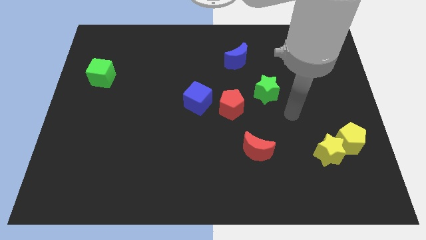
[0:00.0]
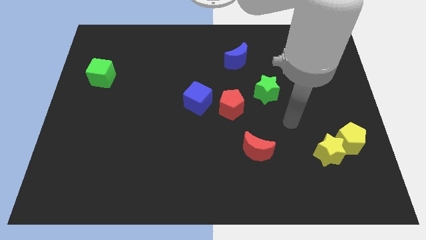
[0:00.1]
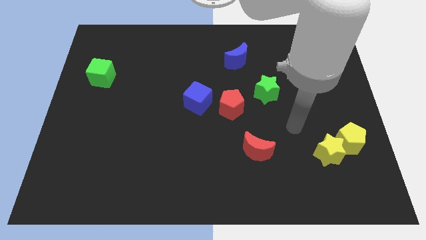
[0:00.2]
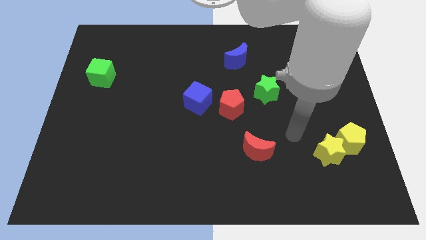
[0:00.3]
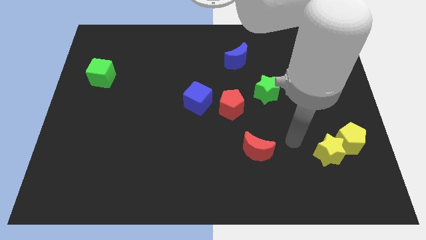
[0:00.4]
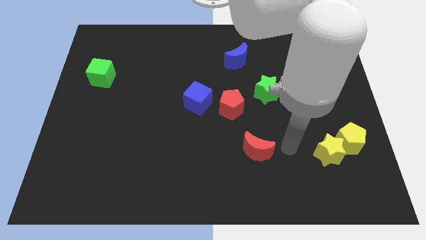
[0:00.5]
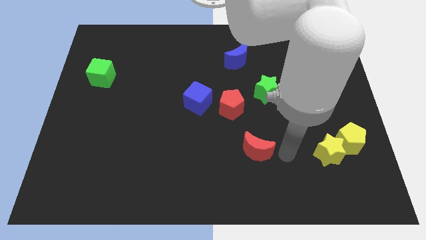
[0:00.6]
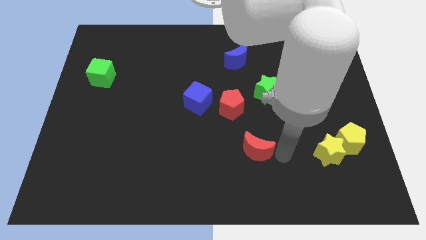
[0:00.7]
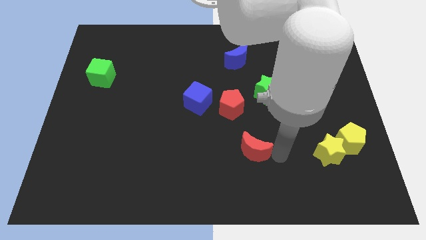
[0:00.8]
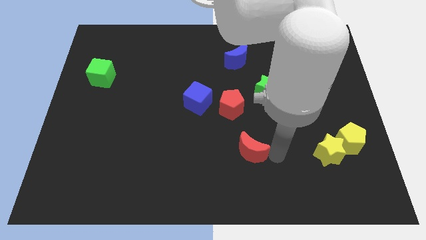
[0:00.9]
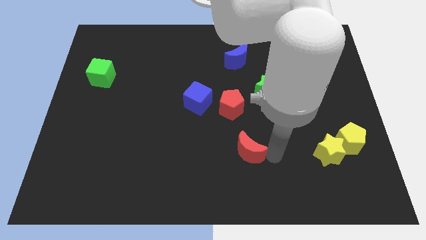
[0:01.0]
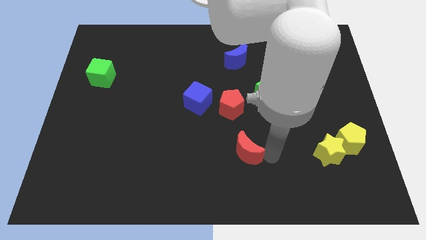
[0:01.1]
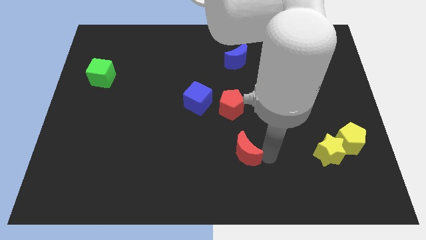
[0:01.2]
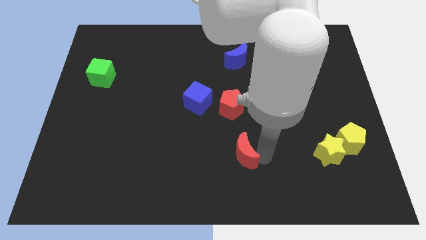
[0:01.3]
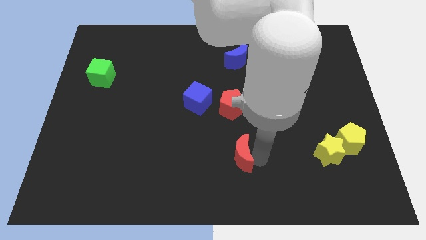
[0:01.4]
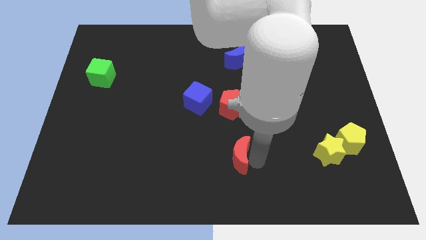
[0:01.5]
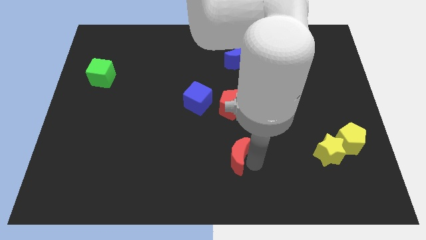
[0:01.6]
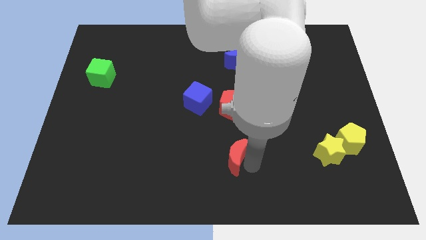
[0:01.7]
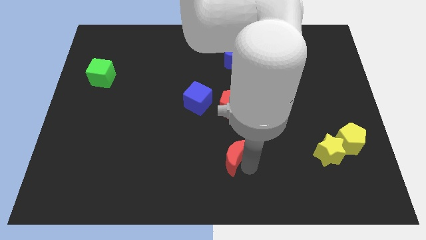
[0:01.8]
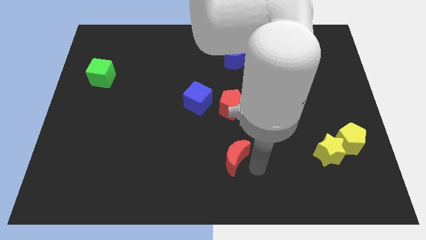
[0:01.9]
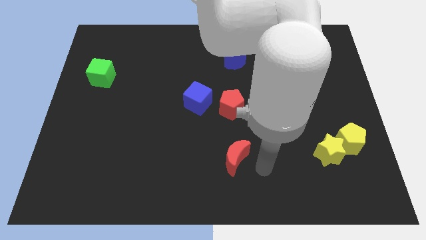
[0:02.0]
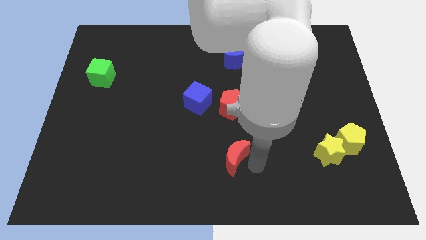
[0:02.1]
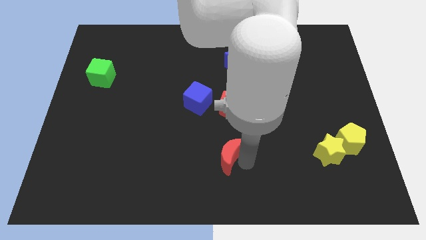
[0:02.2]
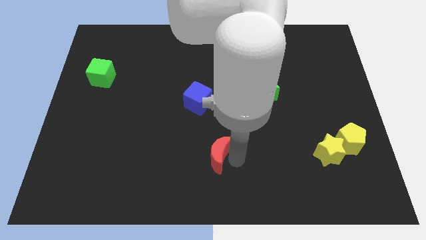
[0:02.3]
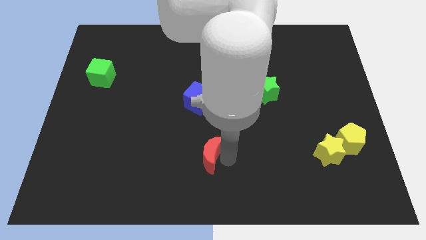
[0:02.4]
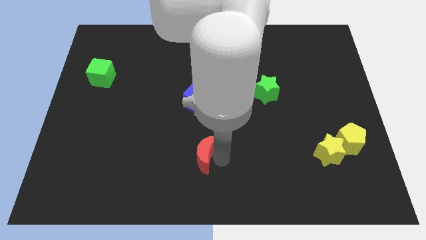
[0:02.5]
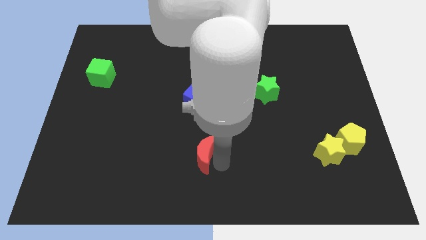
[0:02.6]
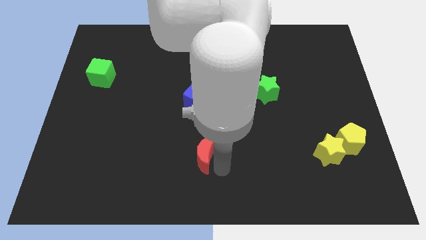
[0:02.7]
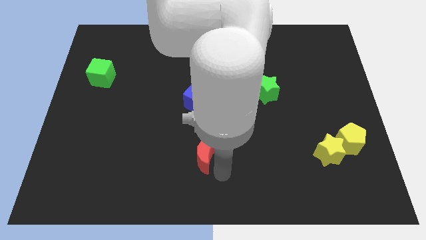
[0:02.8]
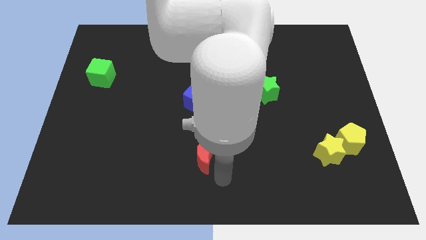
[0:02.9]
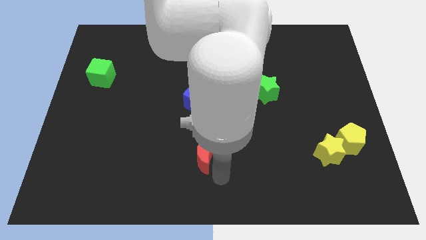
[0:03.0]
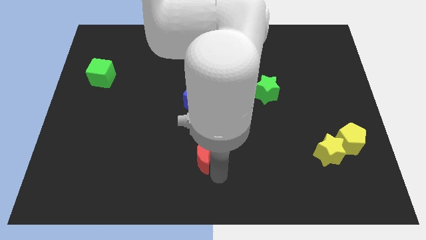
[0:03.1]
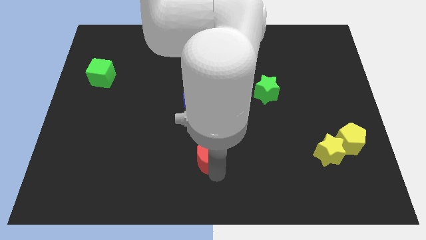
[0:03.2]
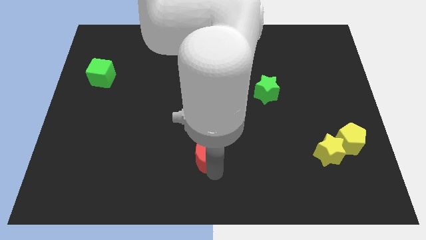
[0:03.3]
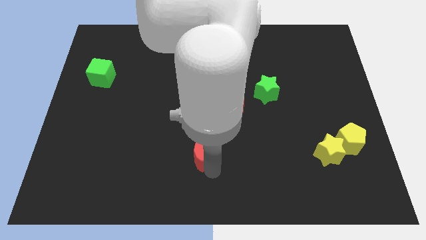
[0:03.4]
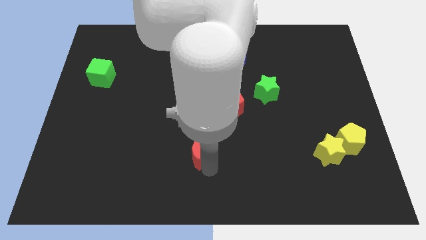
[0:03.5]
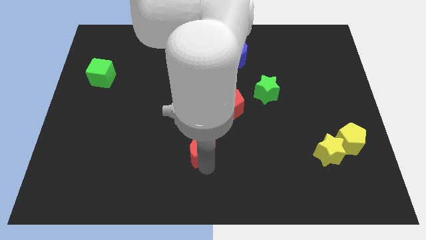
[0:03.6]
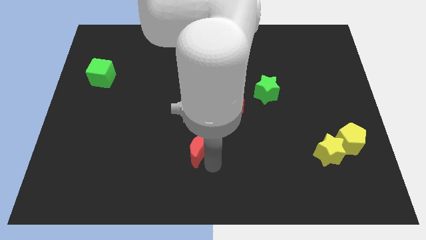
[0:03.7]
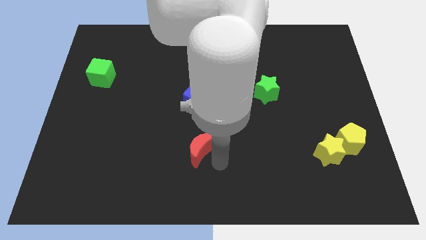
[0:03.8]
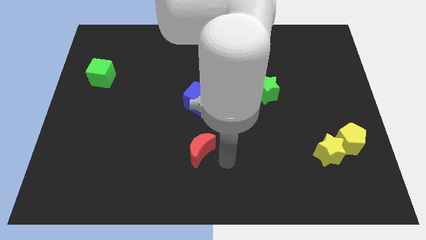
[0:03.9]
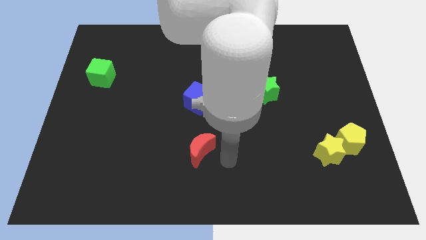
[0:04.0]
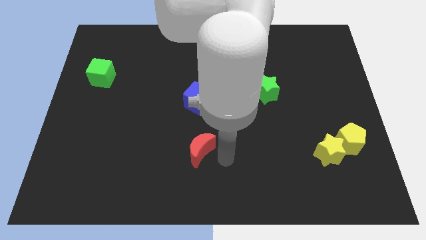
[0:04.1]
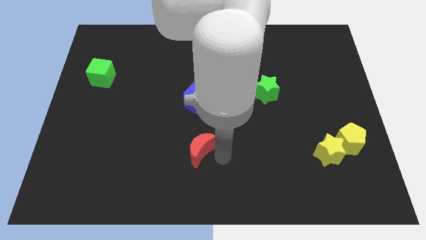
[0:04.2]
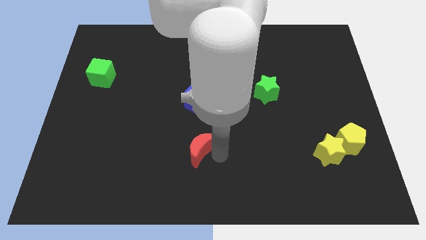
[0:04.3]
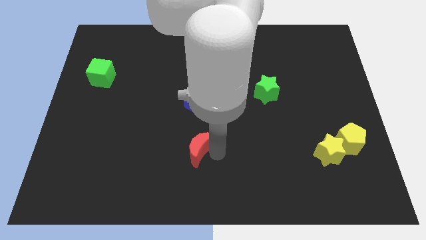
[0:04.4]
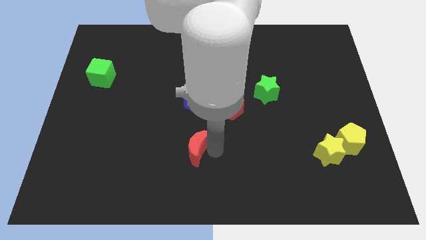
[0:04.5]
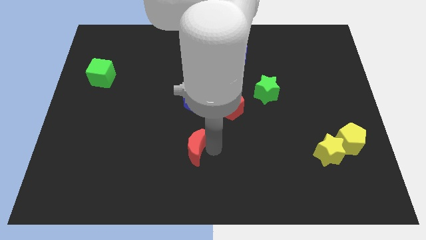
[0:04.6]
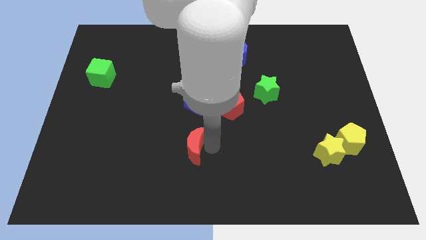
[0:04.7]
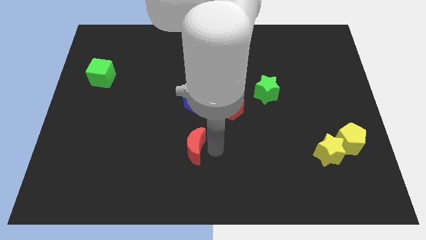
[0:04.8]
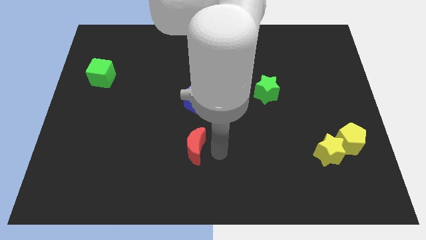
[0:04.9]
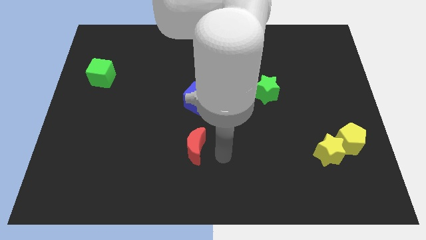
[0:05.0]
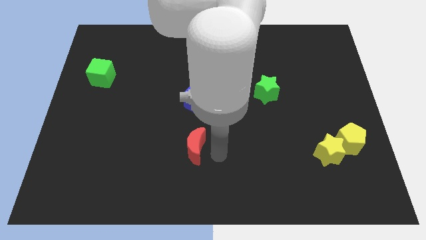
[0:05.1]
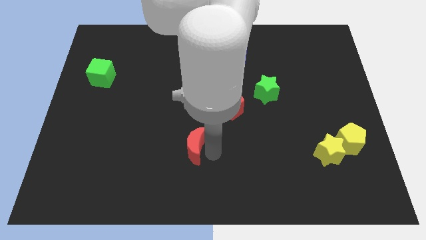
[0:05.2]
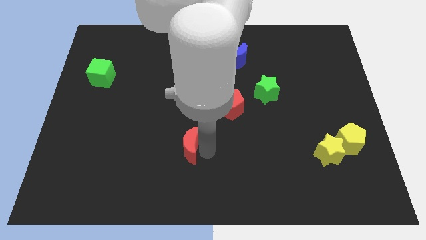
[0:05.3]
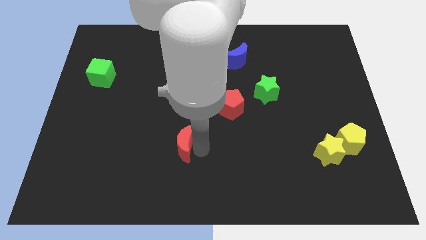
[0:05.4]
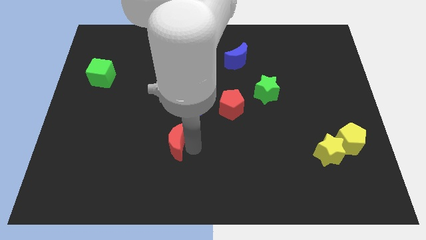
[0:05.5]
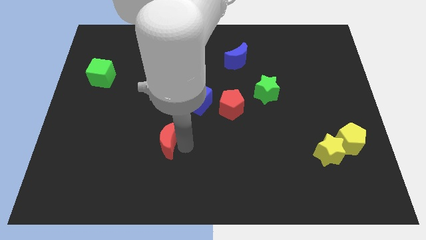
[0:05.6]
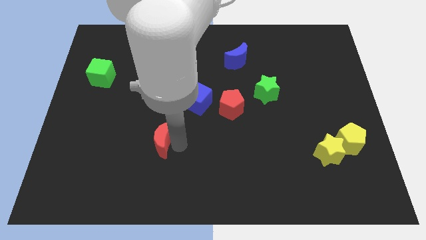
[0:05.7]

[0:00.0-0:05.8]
move the red moon to the left

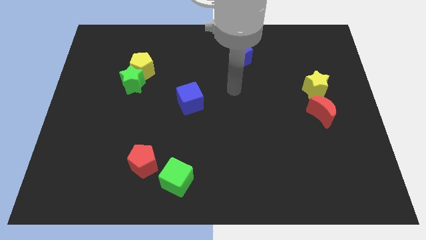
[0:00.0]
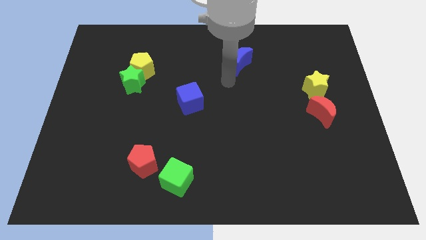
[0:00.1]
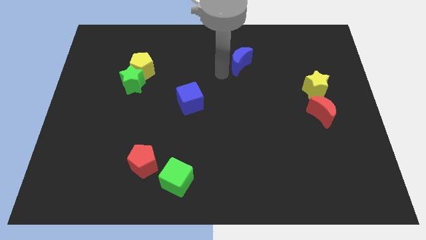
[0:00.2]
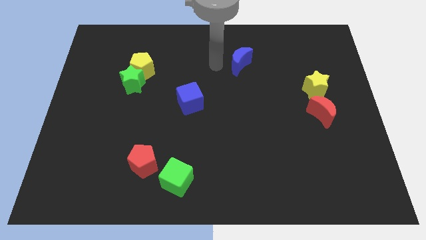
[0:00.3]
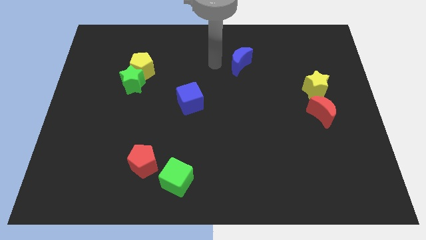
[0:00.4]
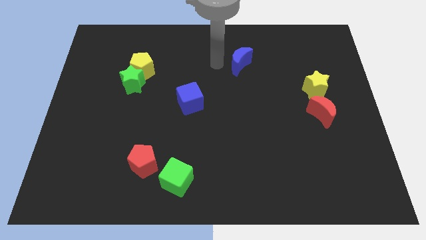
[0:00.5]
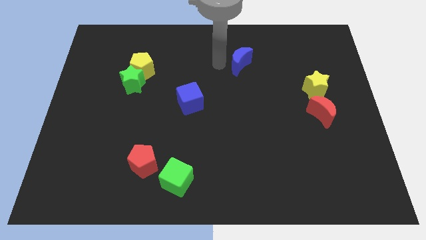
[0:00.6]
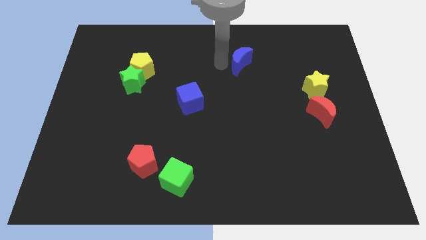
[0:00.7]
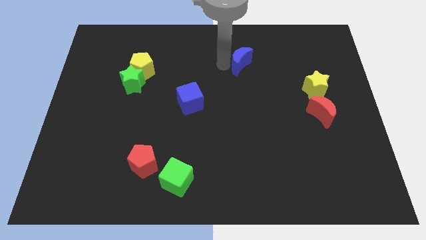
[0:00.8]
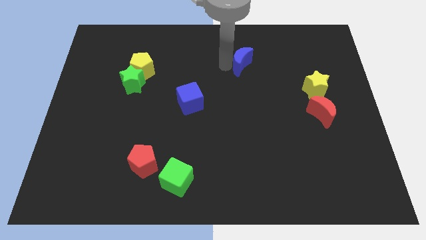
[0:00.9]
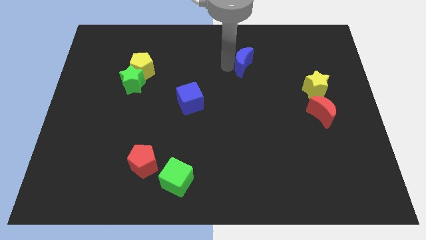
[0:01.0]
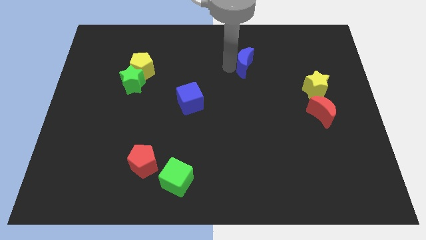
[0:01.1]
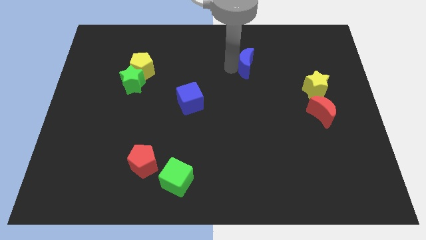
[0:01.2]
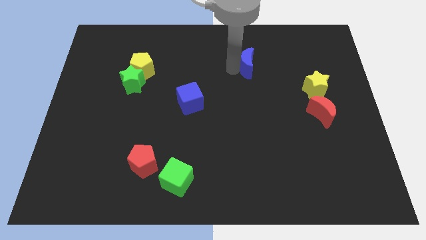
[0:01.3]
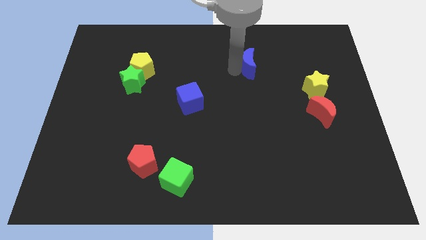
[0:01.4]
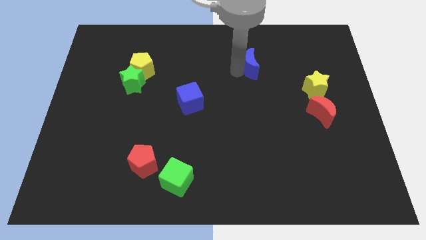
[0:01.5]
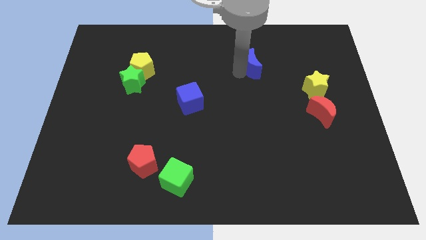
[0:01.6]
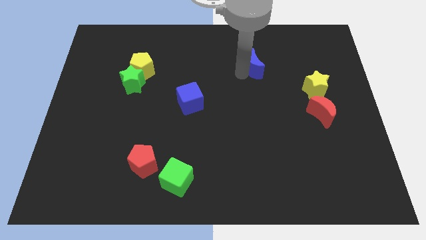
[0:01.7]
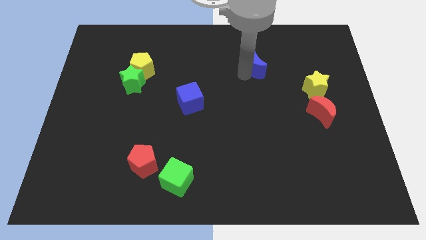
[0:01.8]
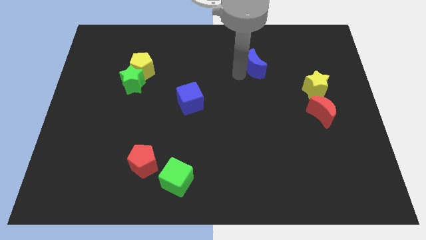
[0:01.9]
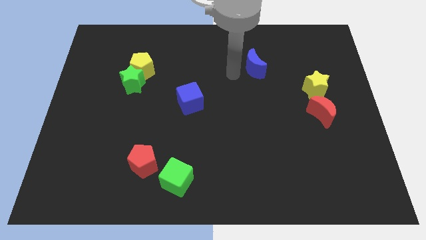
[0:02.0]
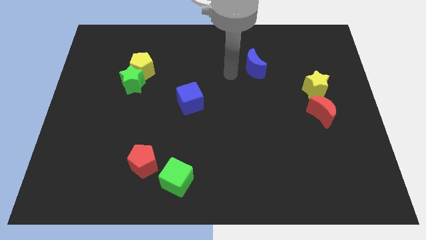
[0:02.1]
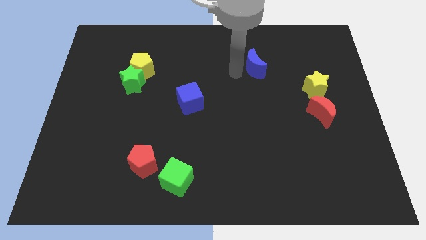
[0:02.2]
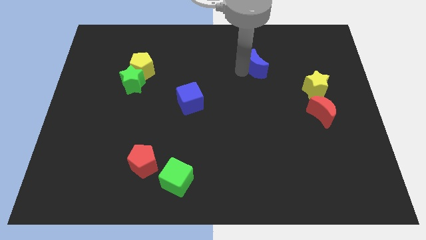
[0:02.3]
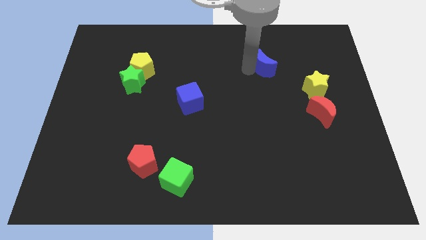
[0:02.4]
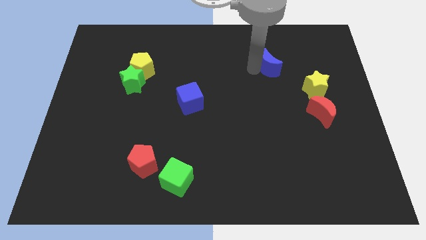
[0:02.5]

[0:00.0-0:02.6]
slide the blue moon a little right
